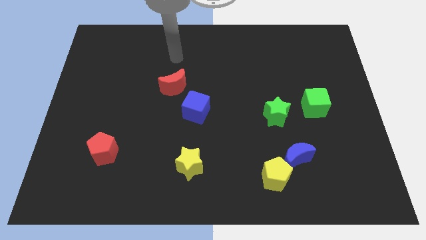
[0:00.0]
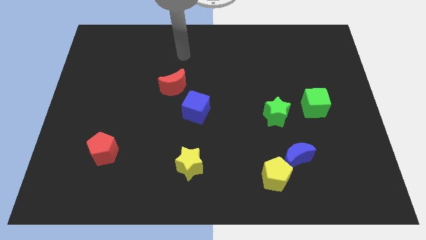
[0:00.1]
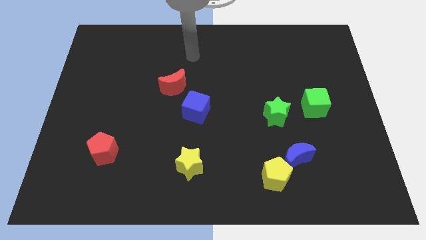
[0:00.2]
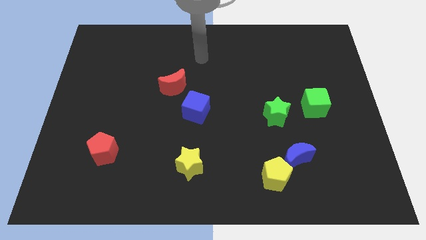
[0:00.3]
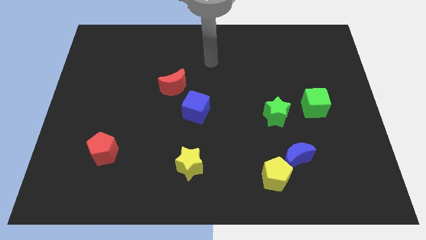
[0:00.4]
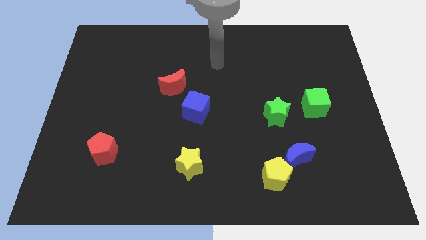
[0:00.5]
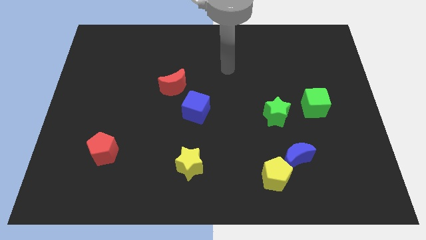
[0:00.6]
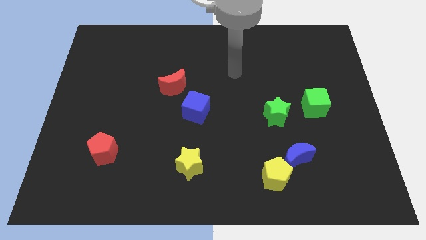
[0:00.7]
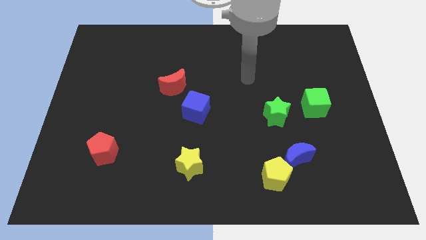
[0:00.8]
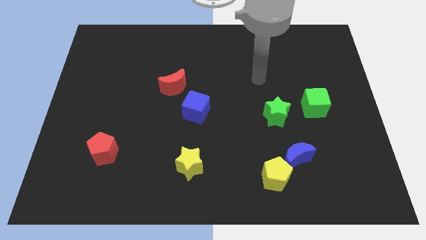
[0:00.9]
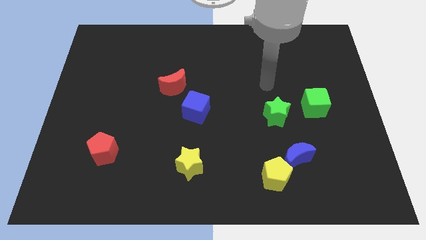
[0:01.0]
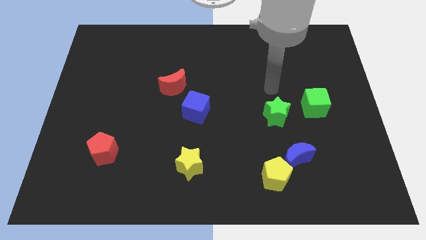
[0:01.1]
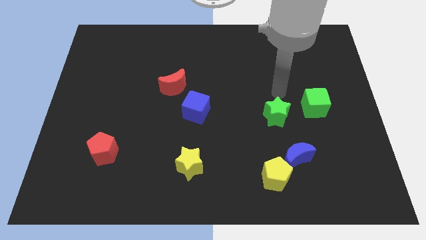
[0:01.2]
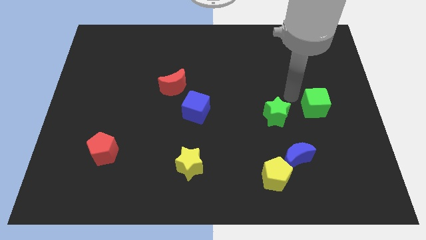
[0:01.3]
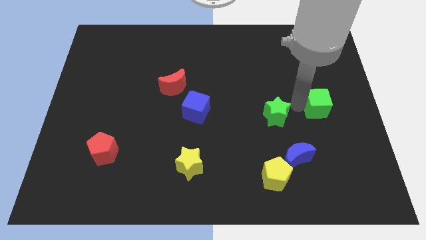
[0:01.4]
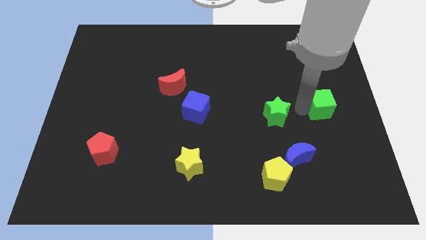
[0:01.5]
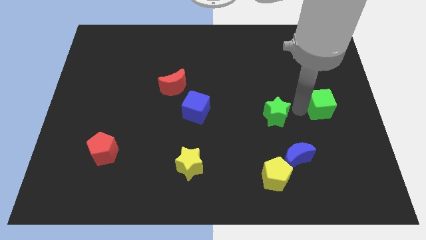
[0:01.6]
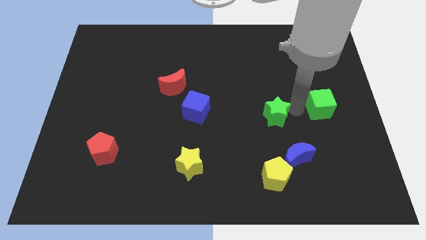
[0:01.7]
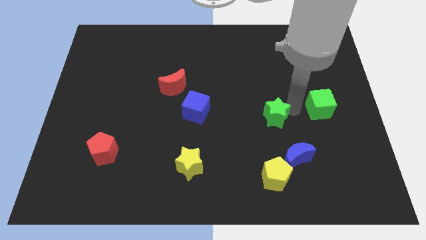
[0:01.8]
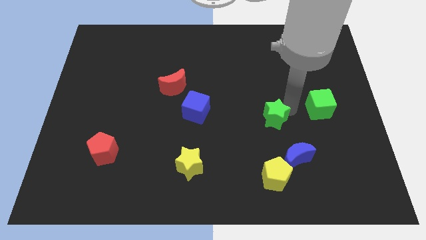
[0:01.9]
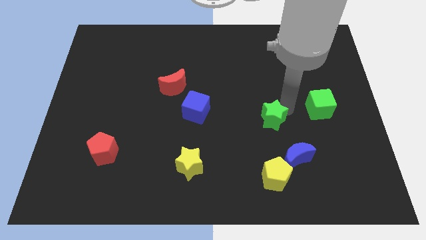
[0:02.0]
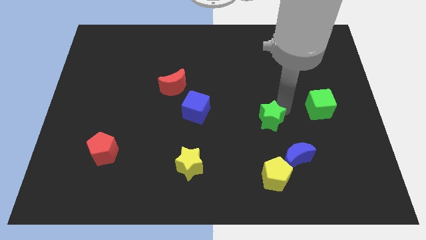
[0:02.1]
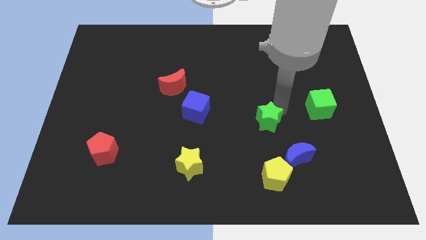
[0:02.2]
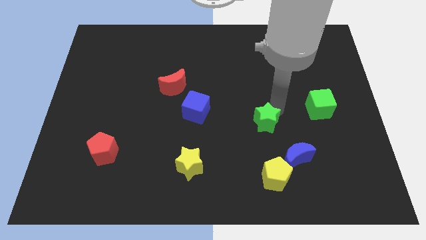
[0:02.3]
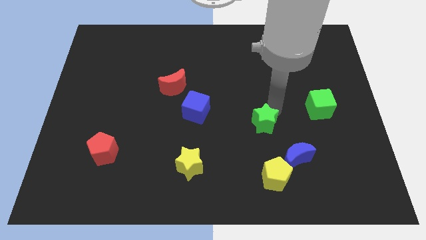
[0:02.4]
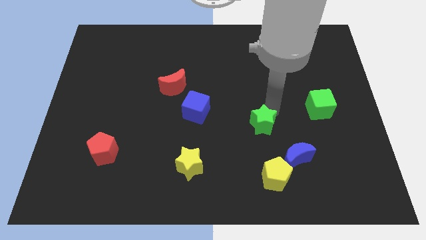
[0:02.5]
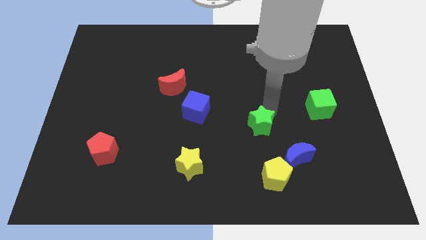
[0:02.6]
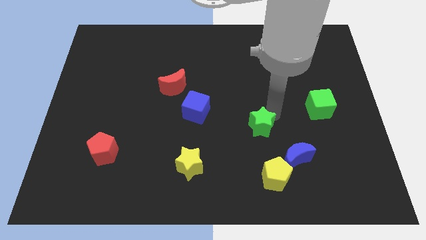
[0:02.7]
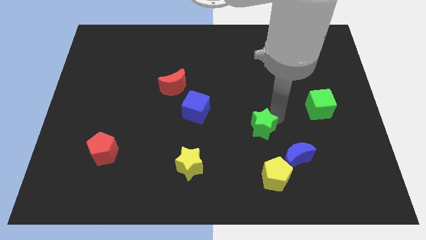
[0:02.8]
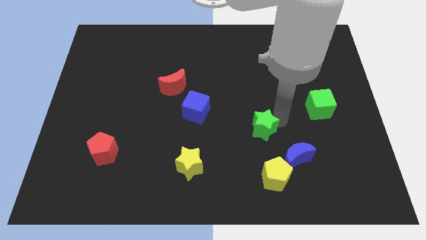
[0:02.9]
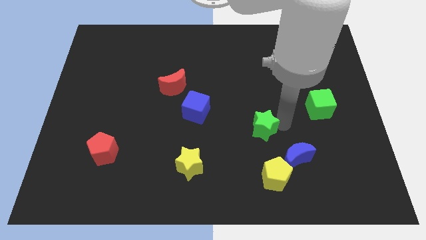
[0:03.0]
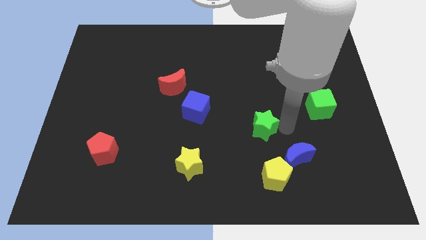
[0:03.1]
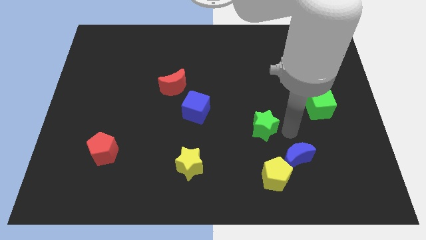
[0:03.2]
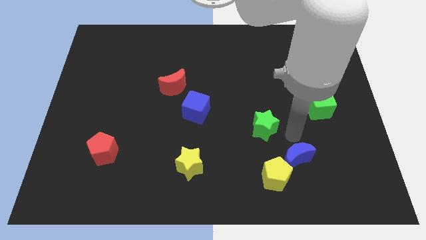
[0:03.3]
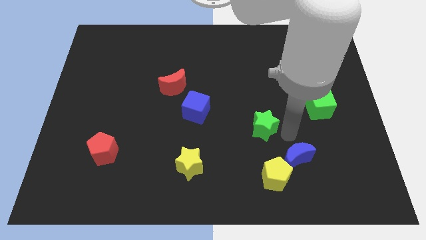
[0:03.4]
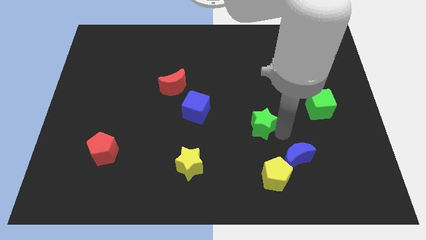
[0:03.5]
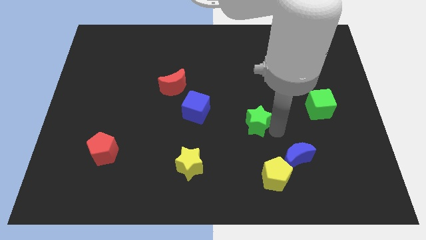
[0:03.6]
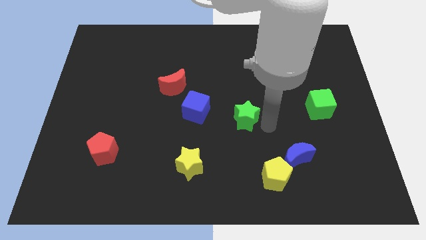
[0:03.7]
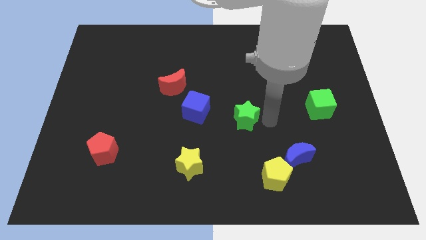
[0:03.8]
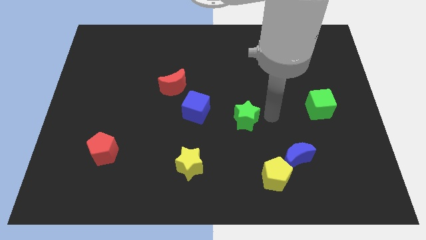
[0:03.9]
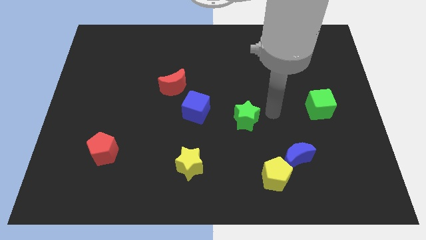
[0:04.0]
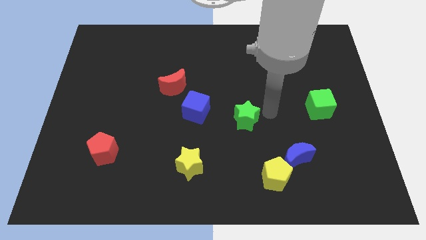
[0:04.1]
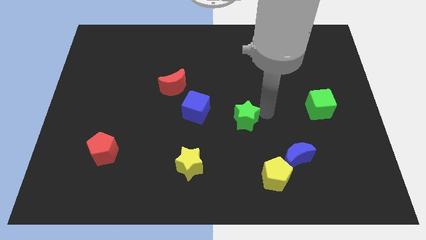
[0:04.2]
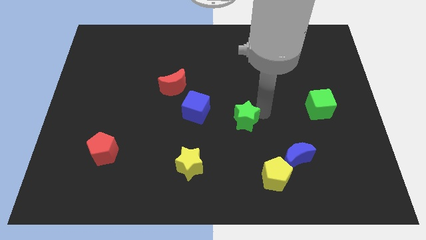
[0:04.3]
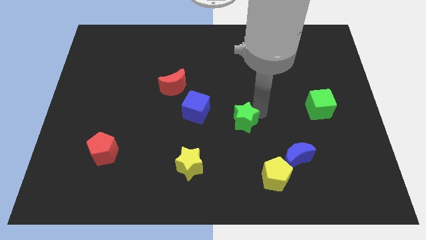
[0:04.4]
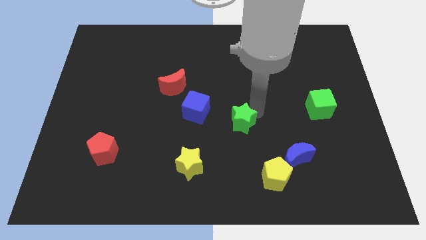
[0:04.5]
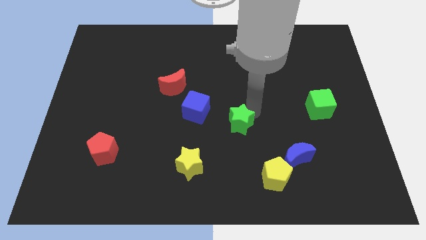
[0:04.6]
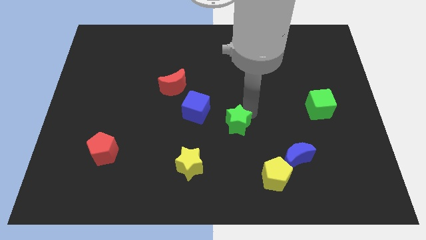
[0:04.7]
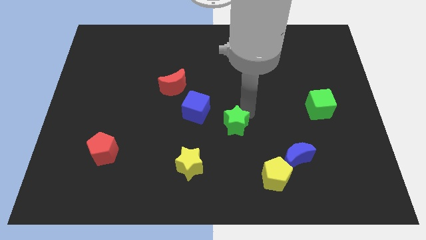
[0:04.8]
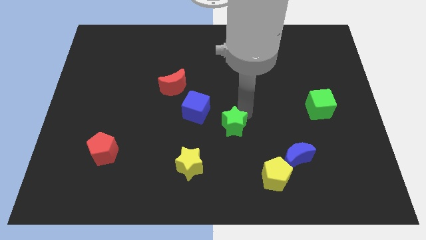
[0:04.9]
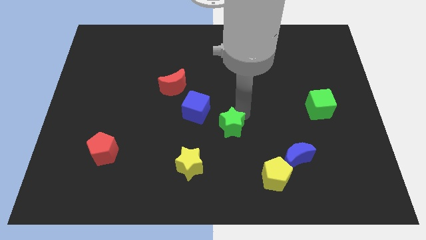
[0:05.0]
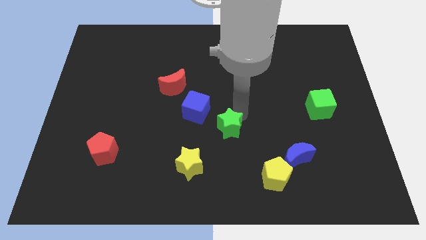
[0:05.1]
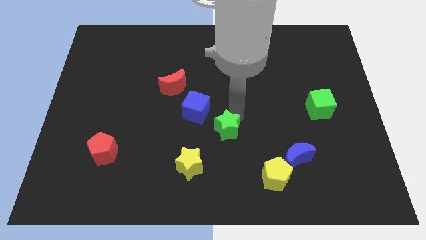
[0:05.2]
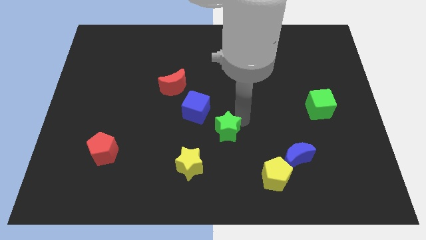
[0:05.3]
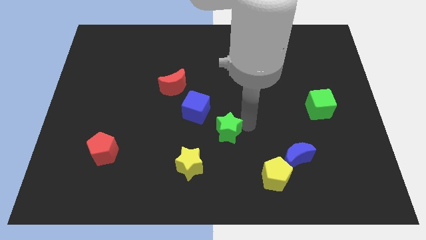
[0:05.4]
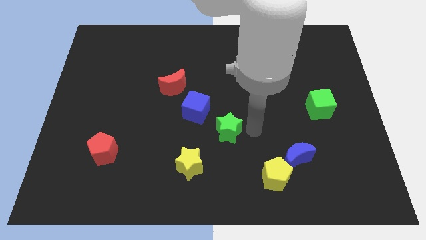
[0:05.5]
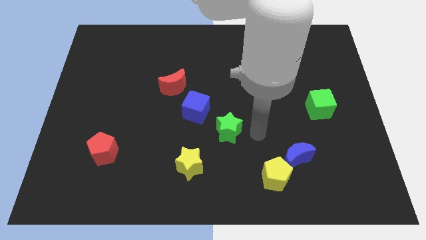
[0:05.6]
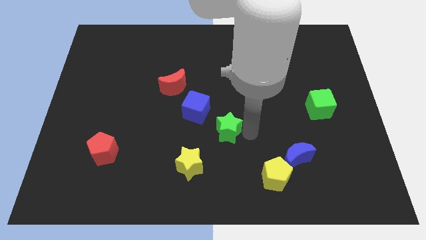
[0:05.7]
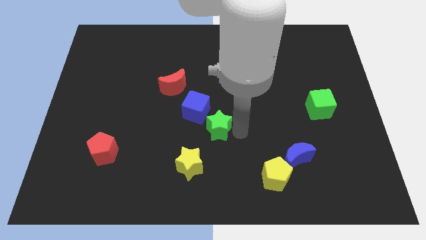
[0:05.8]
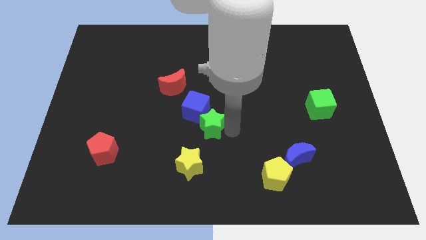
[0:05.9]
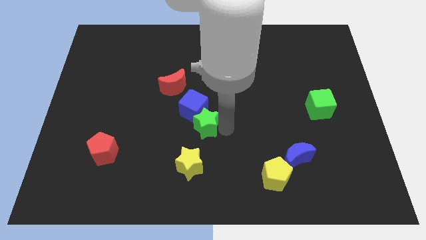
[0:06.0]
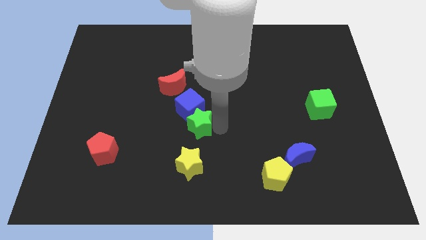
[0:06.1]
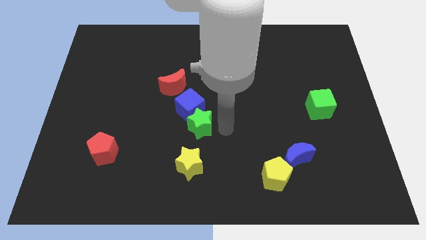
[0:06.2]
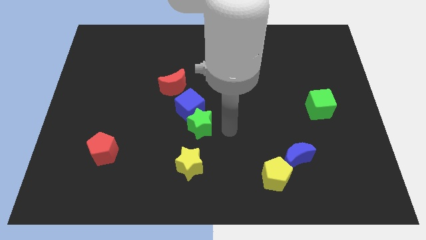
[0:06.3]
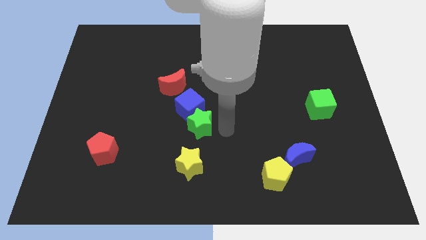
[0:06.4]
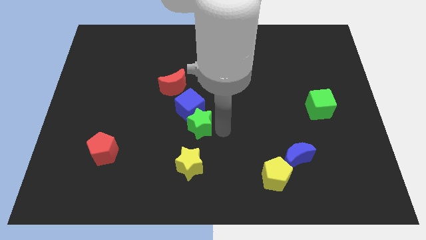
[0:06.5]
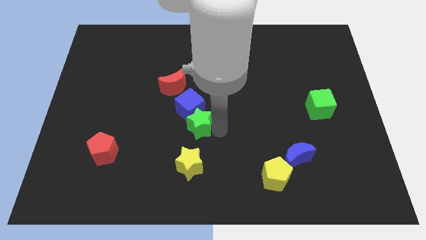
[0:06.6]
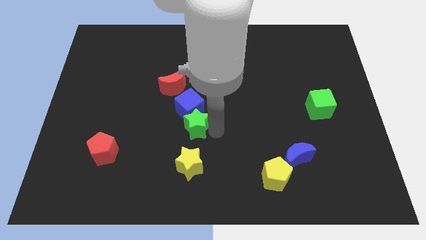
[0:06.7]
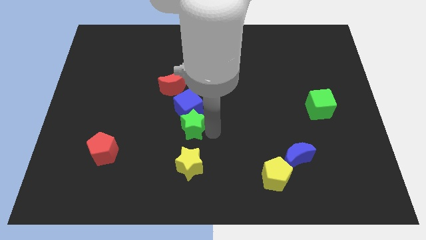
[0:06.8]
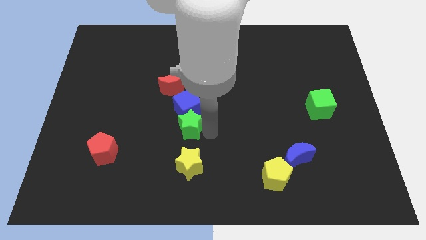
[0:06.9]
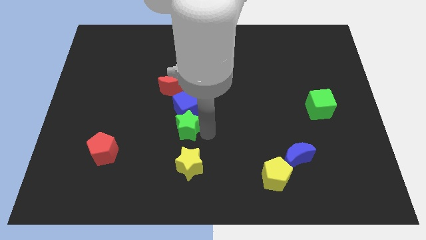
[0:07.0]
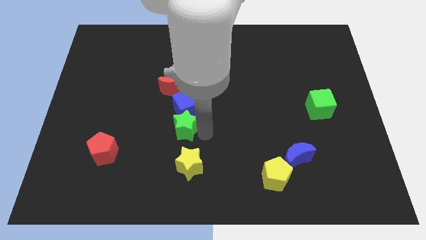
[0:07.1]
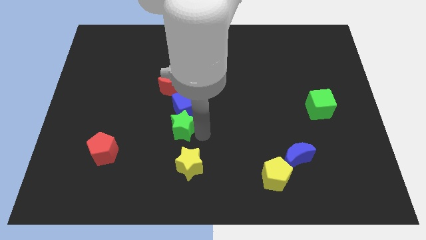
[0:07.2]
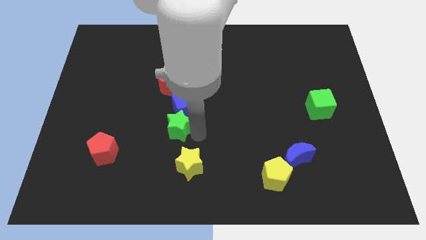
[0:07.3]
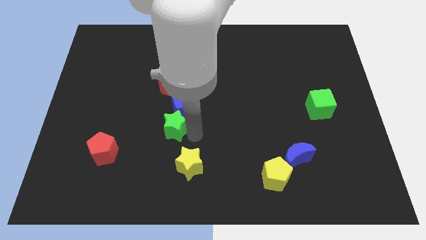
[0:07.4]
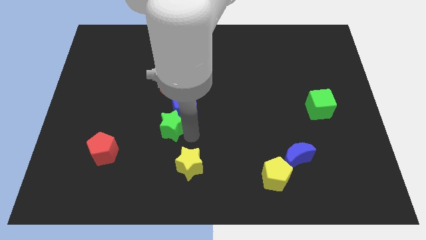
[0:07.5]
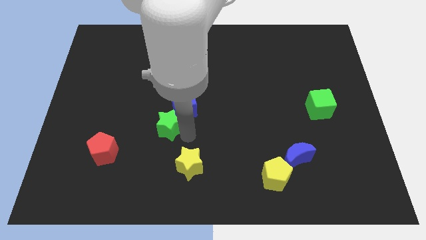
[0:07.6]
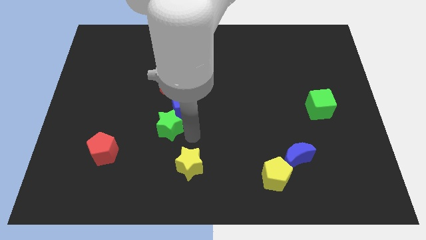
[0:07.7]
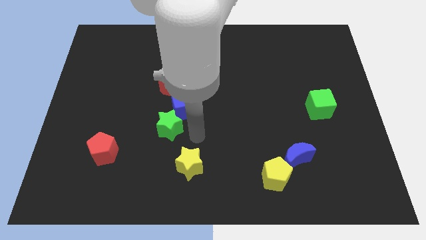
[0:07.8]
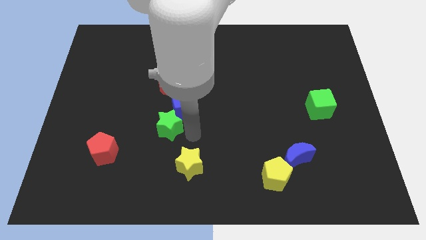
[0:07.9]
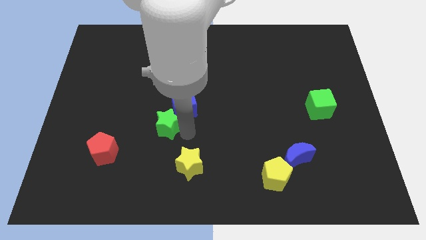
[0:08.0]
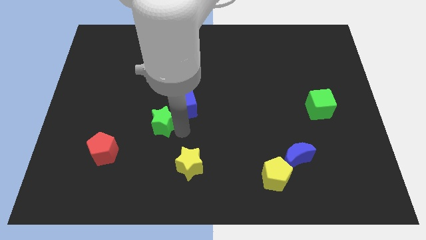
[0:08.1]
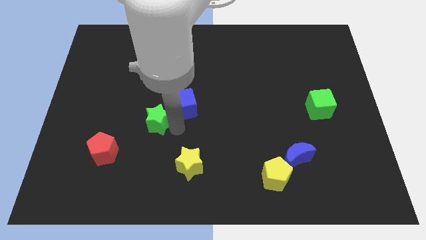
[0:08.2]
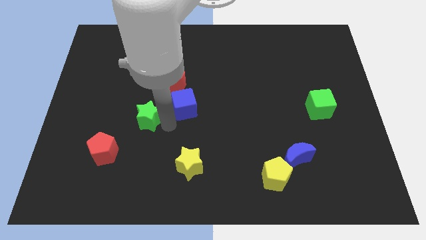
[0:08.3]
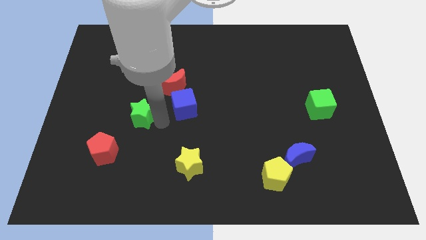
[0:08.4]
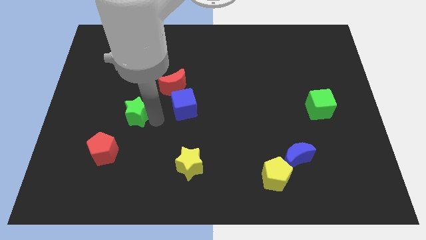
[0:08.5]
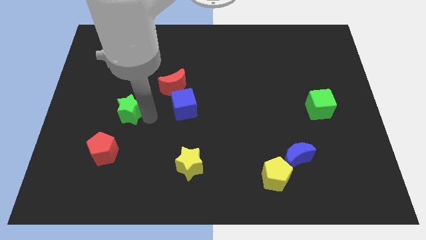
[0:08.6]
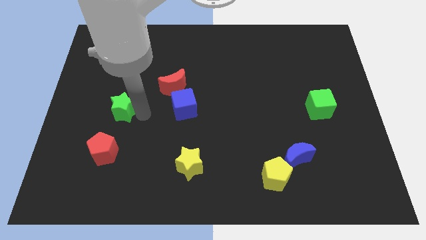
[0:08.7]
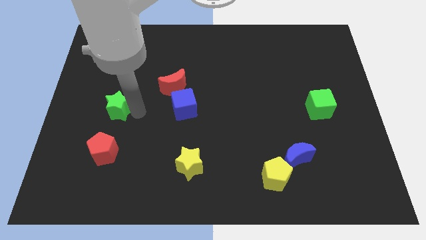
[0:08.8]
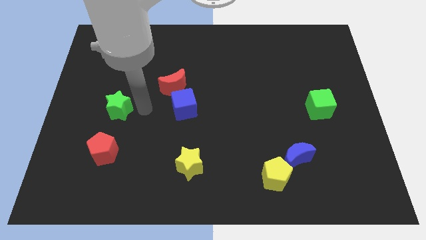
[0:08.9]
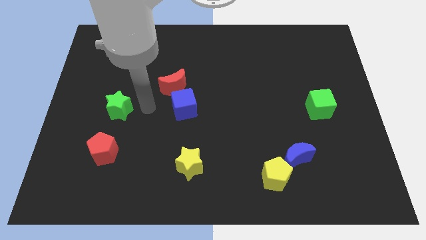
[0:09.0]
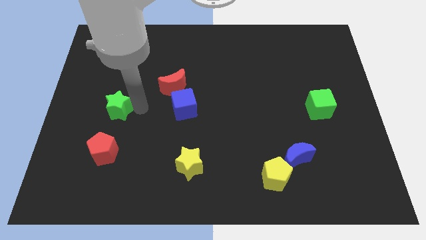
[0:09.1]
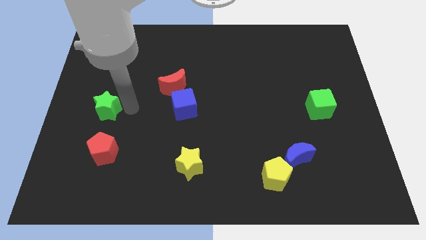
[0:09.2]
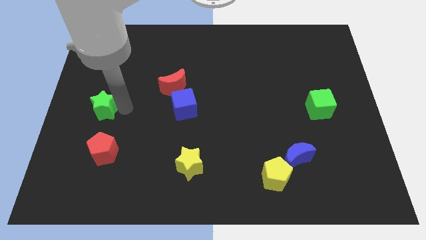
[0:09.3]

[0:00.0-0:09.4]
slide the green star to the center left
